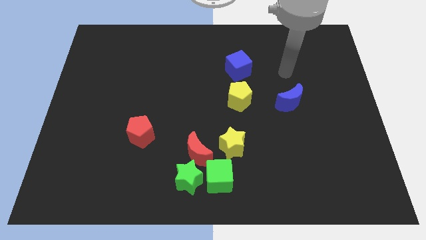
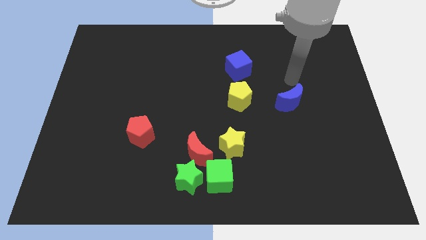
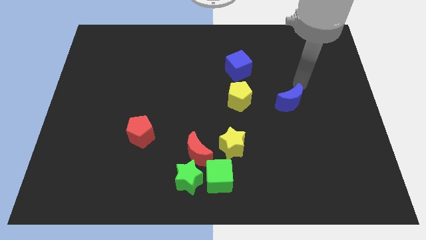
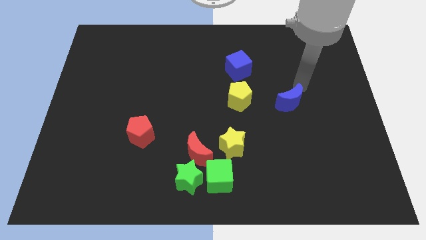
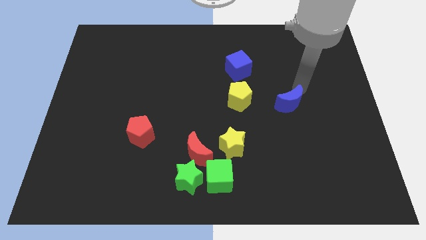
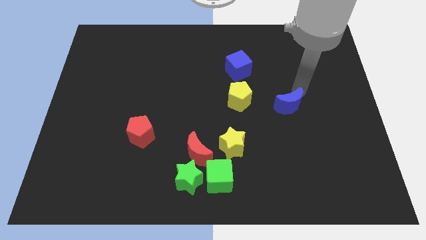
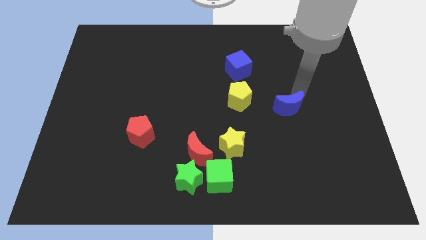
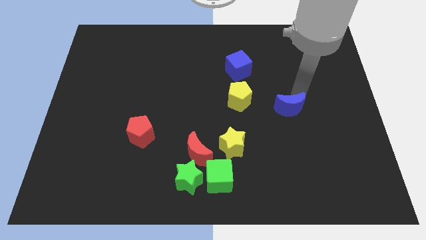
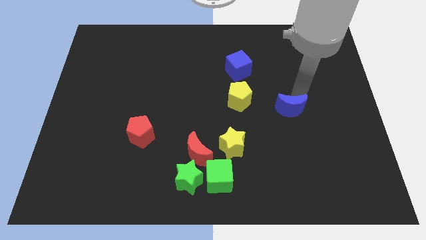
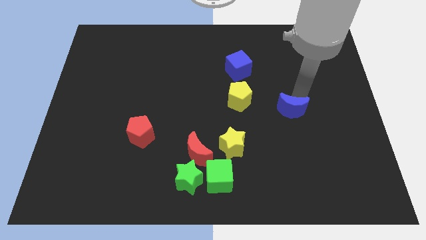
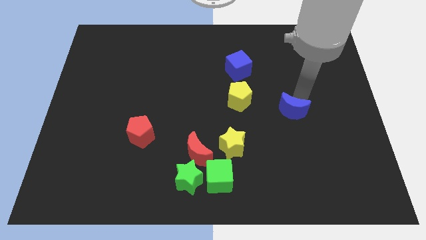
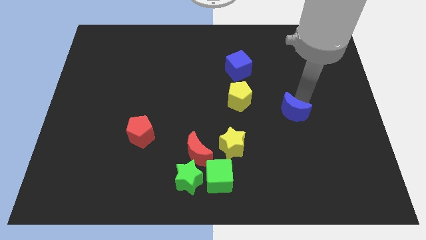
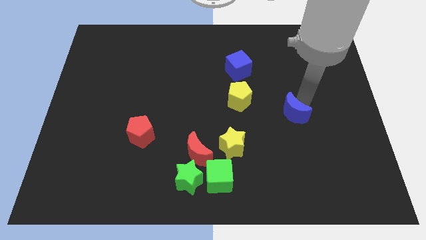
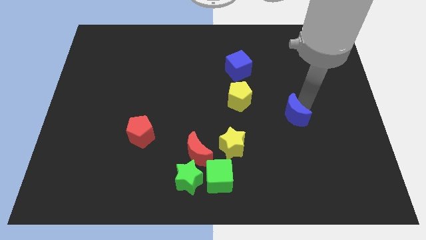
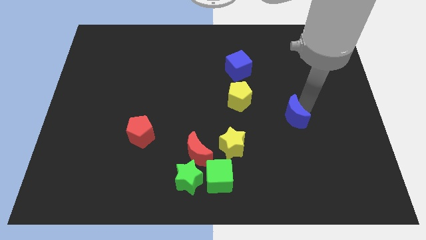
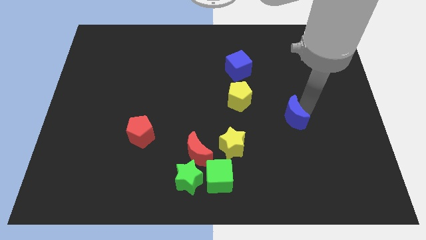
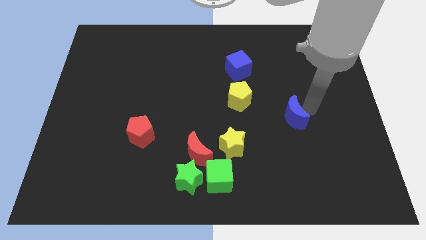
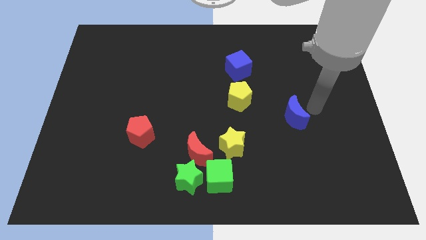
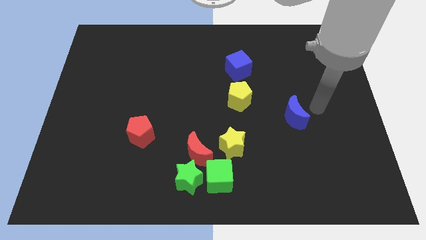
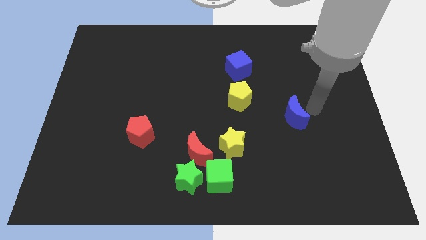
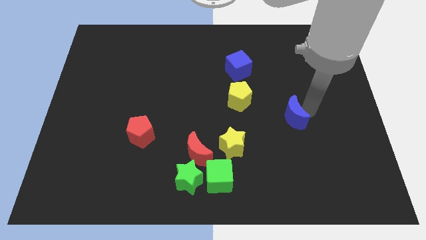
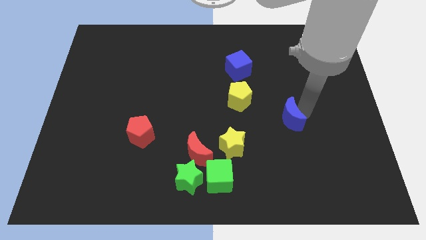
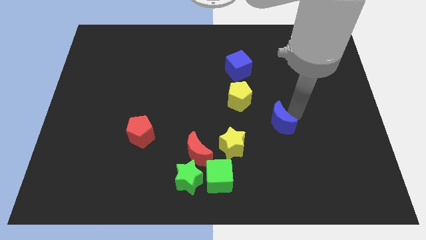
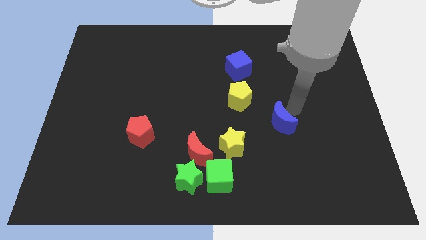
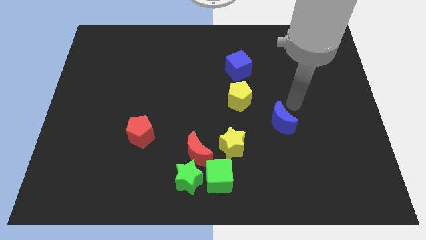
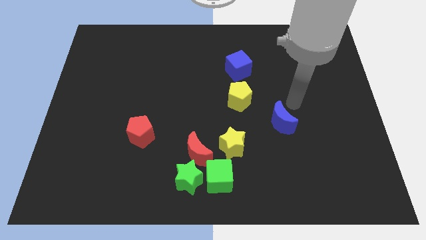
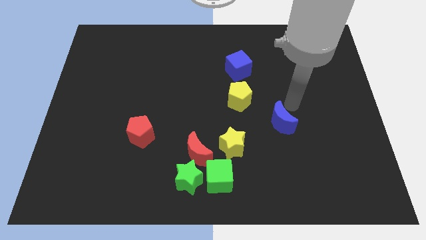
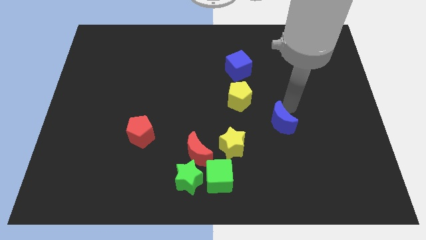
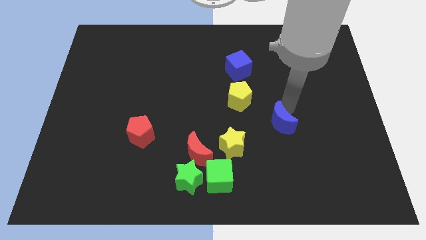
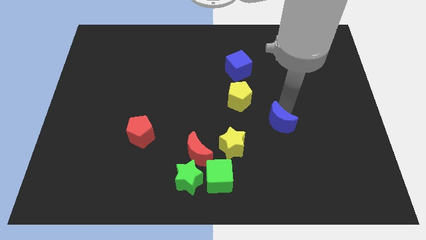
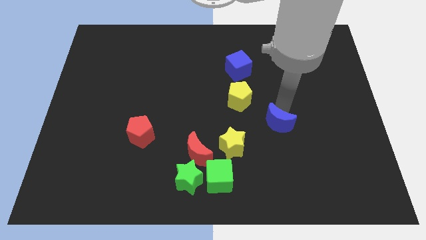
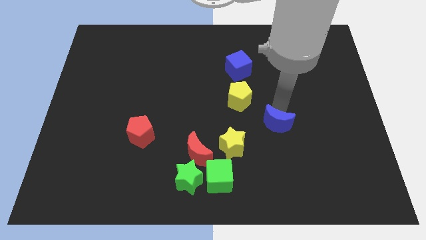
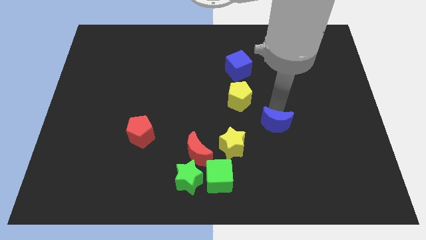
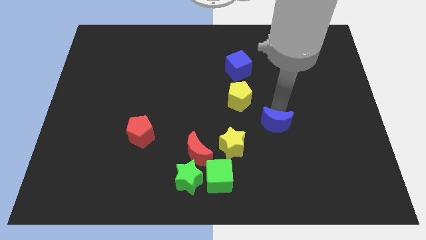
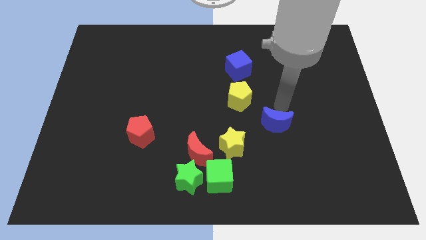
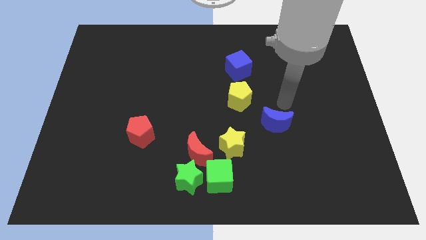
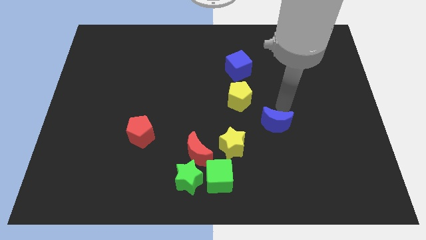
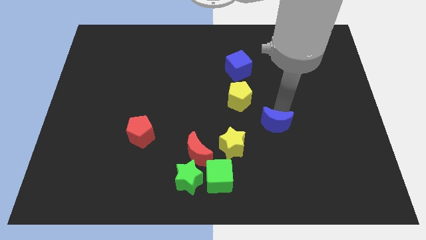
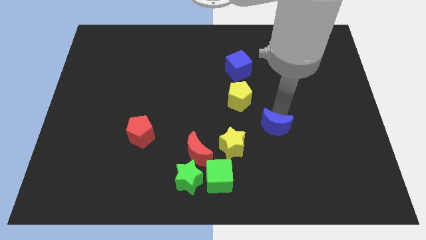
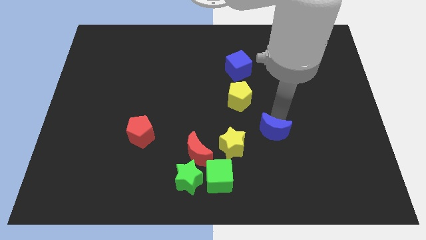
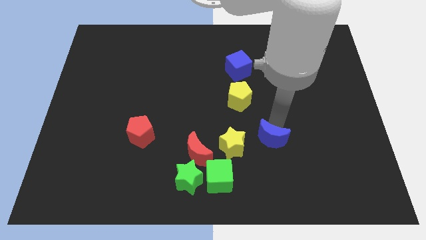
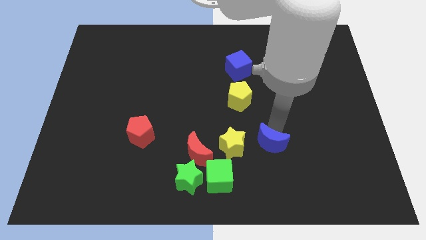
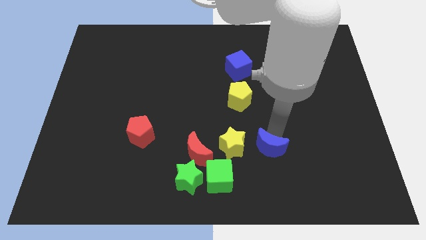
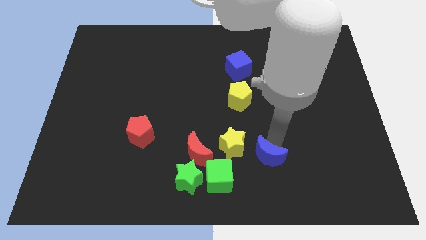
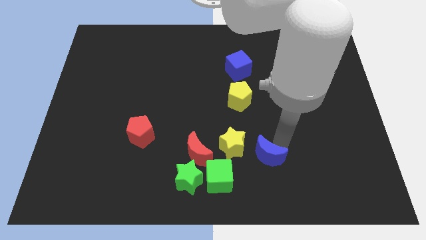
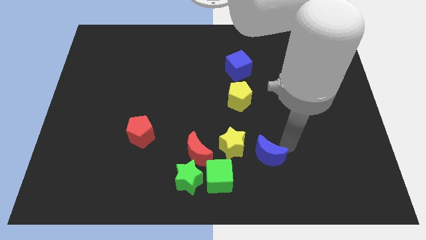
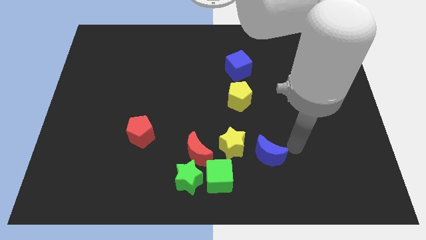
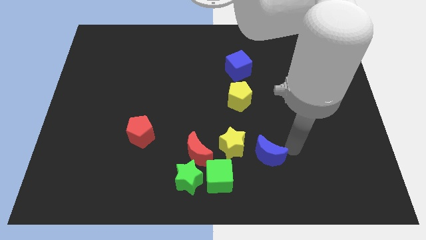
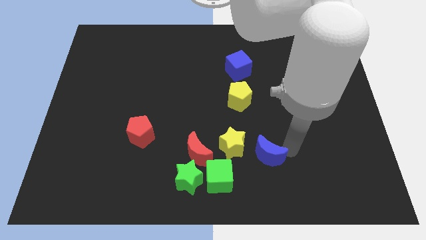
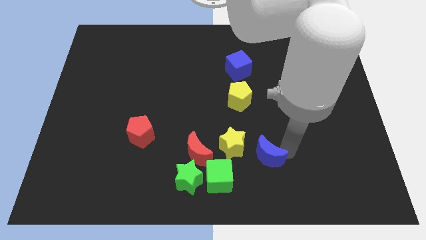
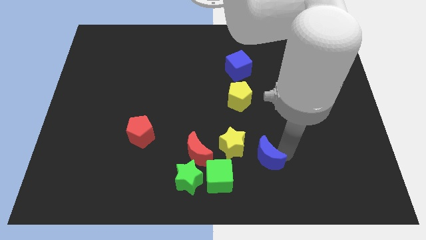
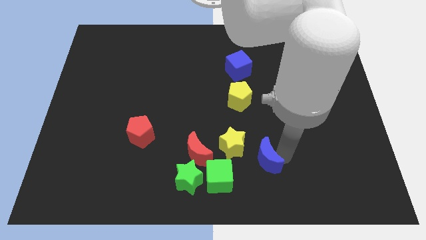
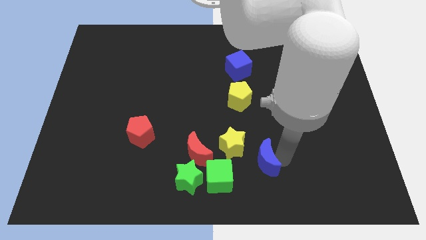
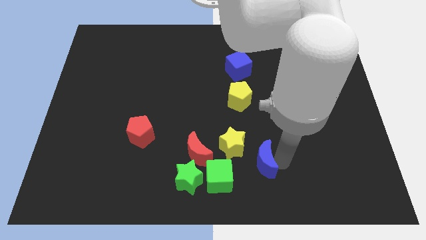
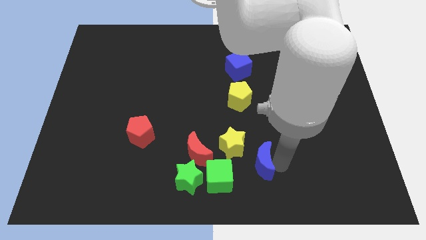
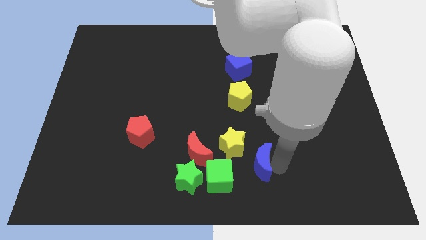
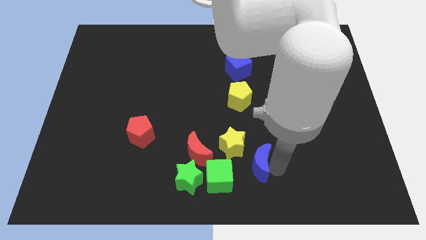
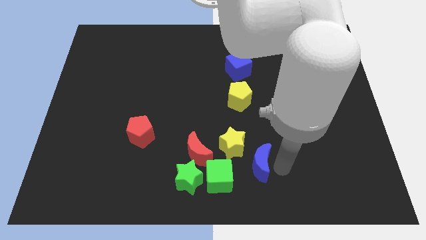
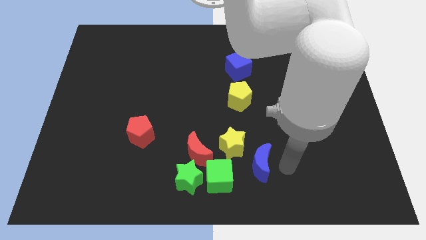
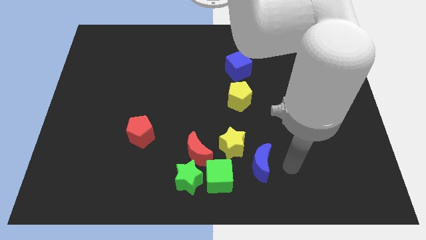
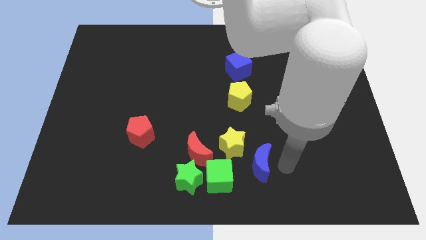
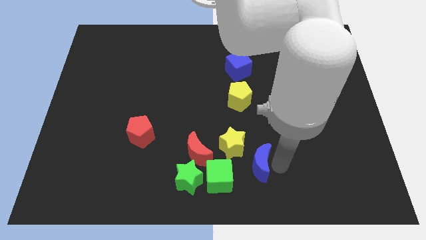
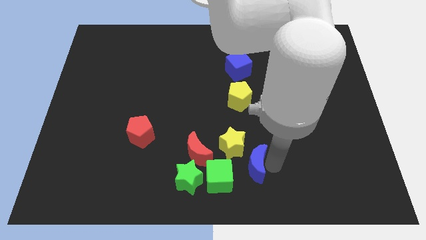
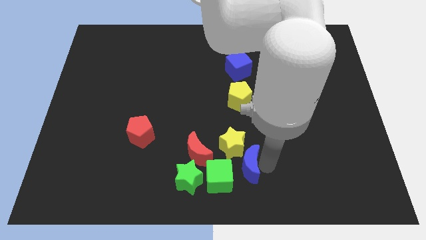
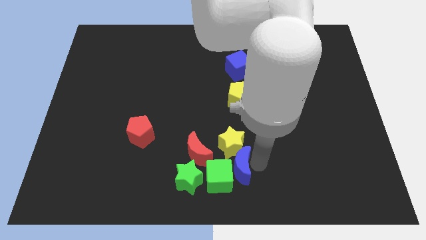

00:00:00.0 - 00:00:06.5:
slide the blue moon next to the green cube
